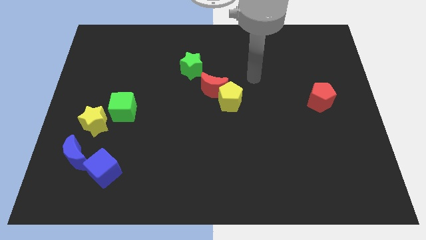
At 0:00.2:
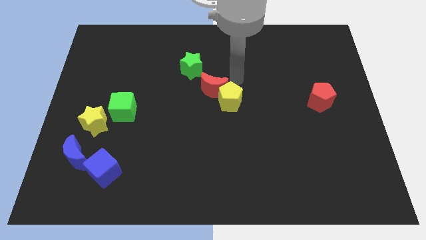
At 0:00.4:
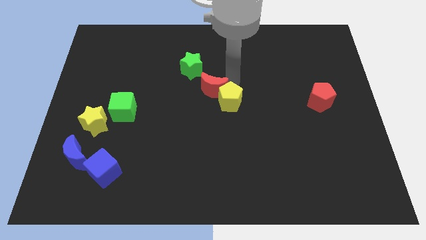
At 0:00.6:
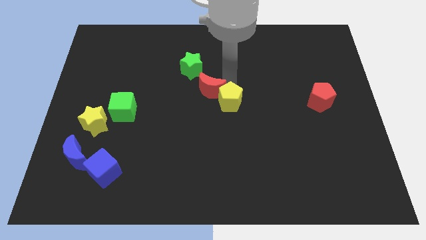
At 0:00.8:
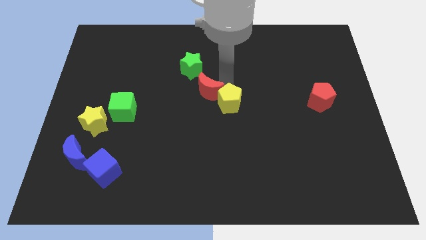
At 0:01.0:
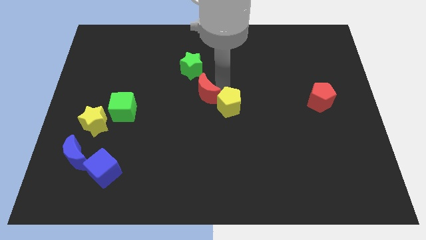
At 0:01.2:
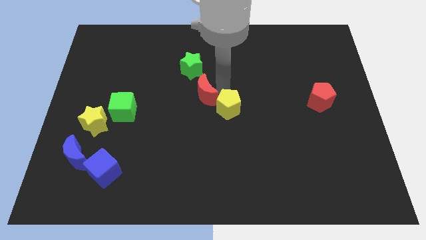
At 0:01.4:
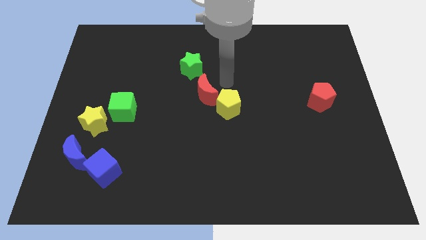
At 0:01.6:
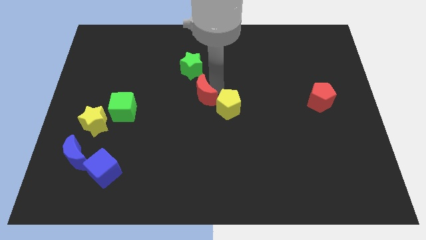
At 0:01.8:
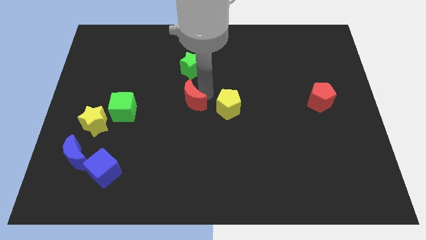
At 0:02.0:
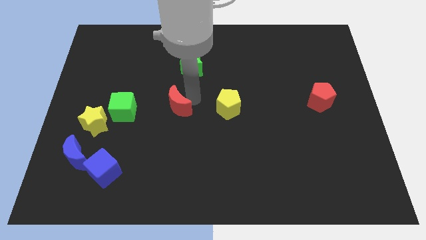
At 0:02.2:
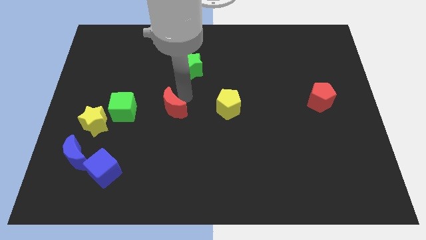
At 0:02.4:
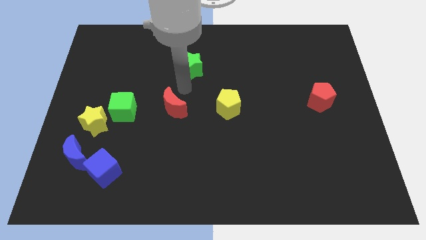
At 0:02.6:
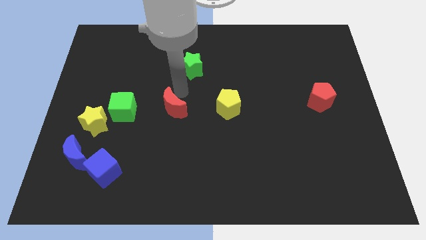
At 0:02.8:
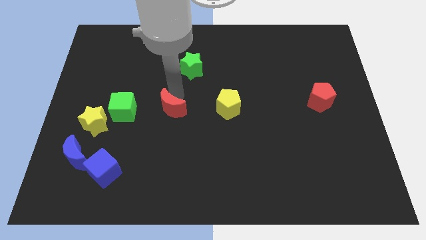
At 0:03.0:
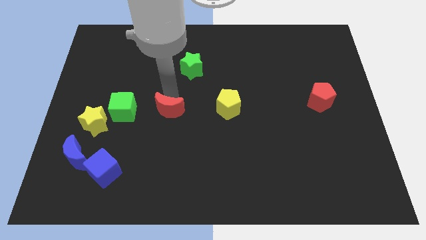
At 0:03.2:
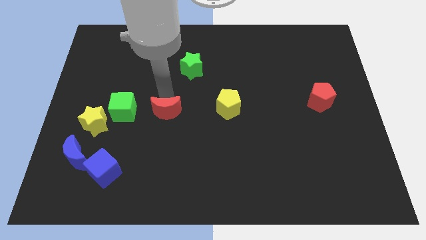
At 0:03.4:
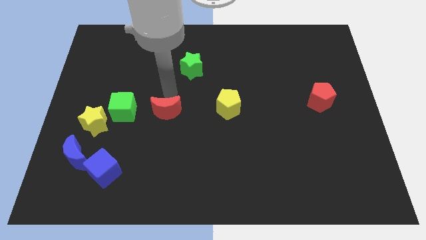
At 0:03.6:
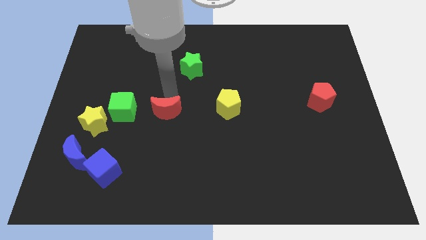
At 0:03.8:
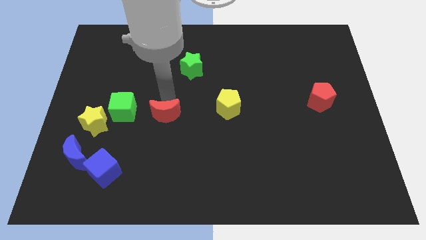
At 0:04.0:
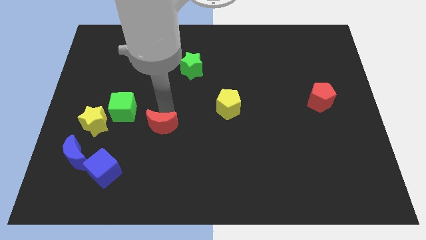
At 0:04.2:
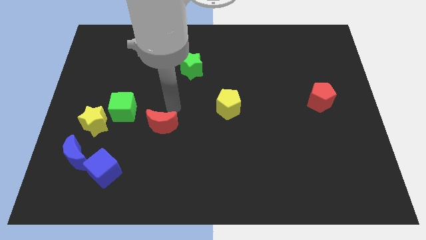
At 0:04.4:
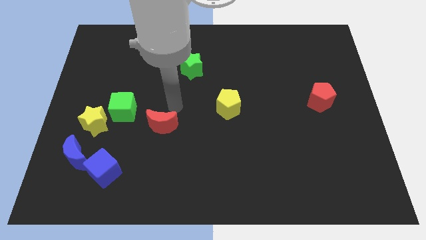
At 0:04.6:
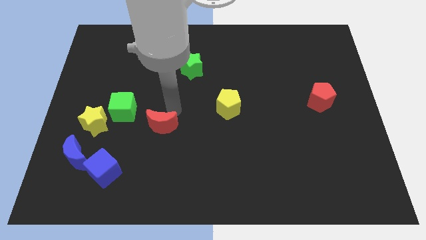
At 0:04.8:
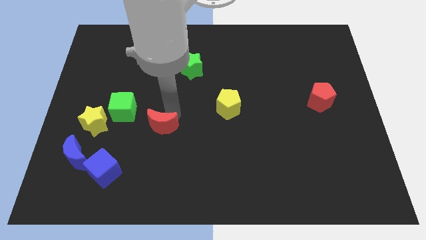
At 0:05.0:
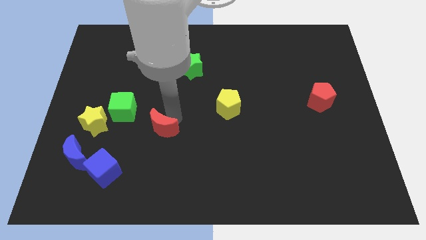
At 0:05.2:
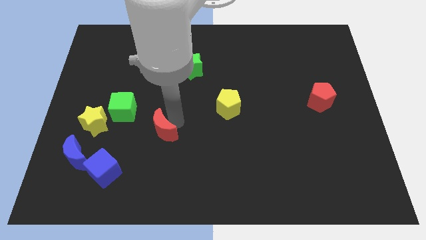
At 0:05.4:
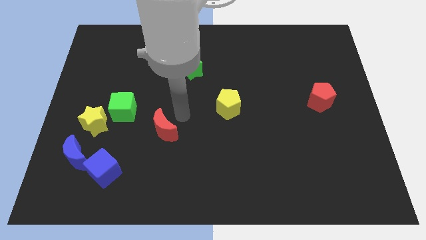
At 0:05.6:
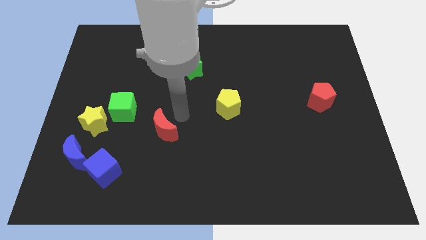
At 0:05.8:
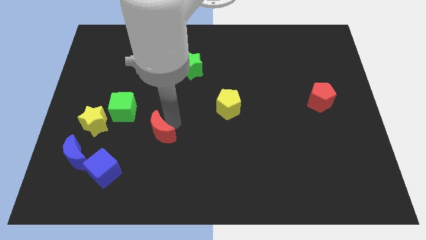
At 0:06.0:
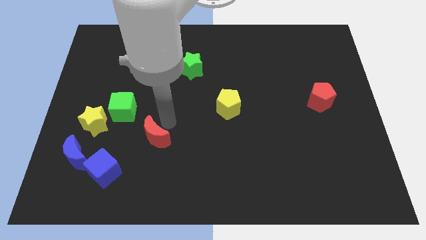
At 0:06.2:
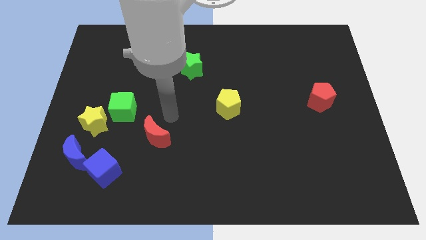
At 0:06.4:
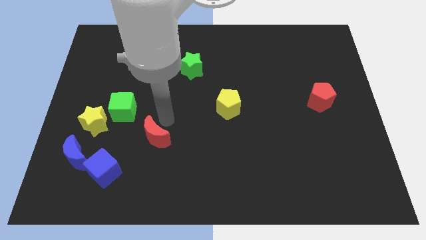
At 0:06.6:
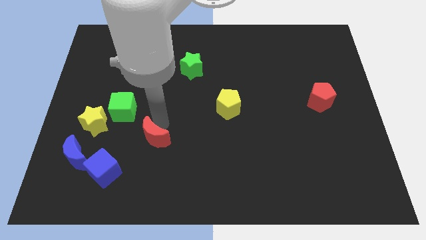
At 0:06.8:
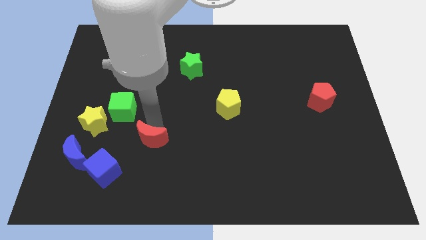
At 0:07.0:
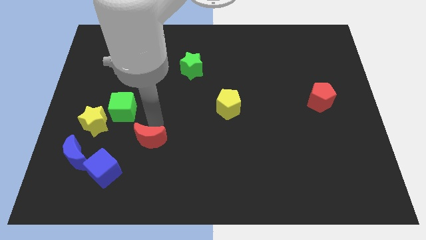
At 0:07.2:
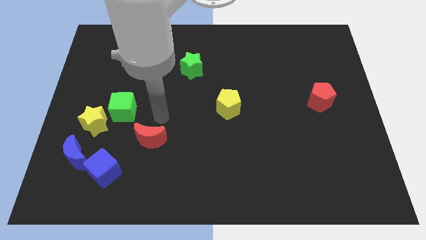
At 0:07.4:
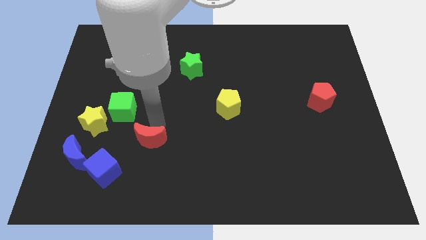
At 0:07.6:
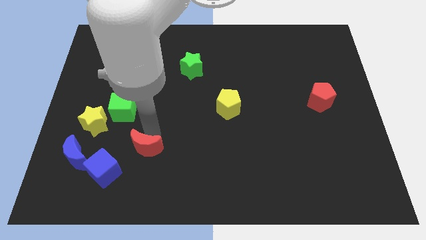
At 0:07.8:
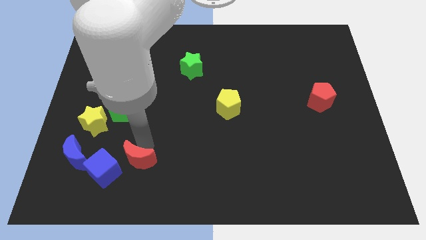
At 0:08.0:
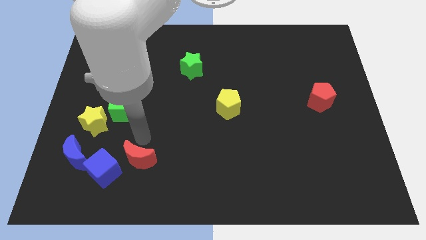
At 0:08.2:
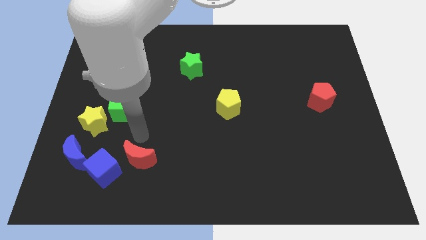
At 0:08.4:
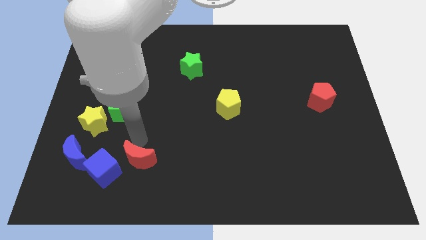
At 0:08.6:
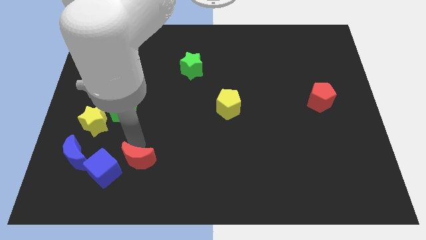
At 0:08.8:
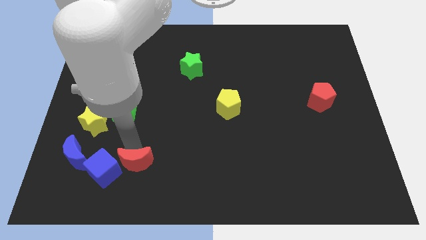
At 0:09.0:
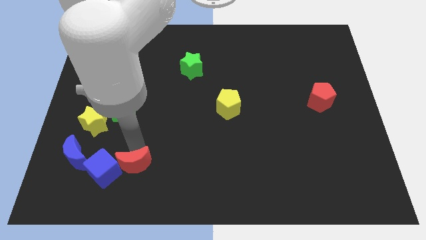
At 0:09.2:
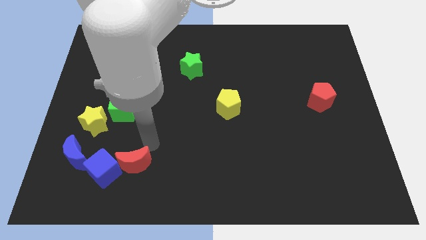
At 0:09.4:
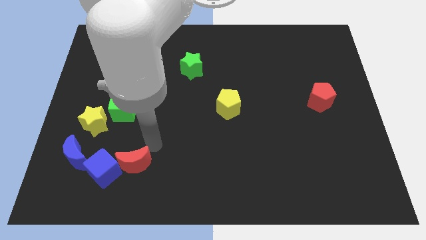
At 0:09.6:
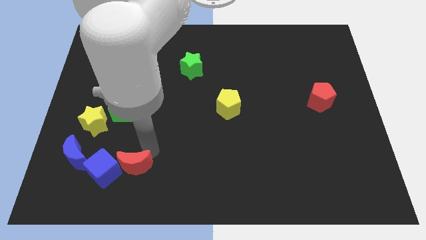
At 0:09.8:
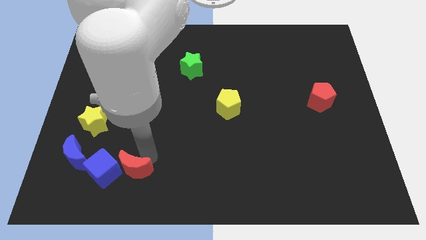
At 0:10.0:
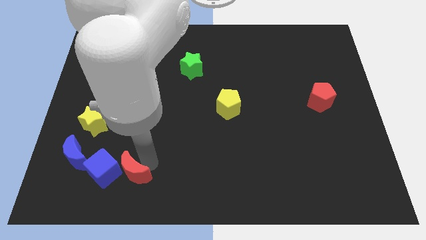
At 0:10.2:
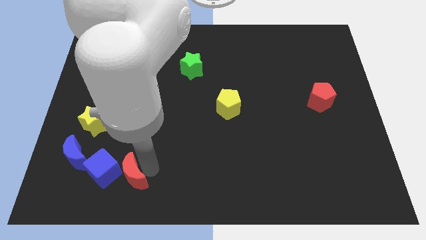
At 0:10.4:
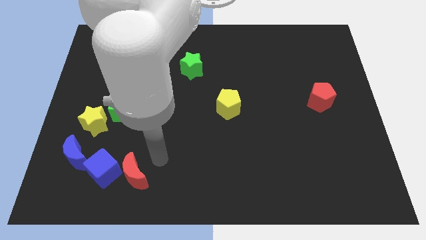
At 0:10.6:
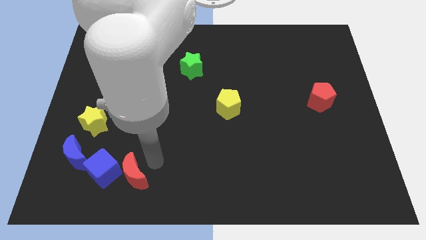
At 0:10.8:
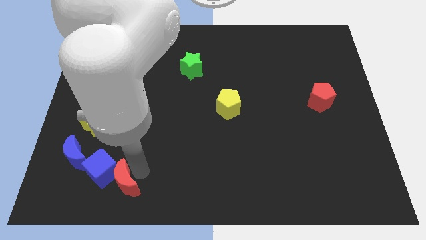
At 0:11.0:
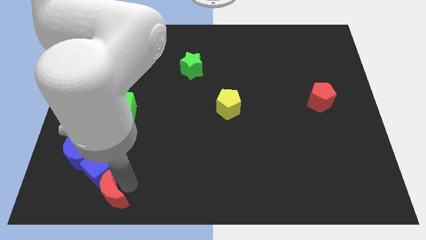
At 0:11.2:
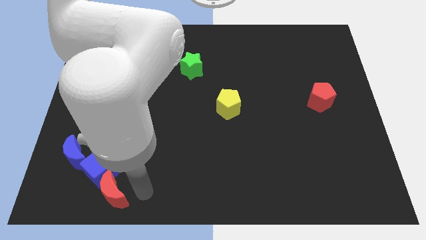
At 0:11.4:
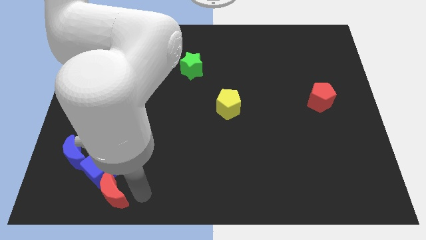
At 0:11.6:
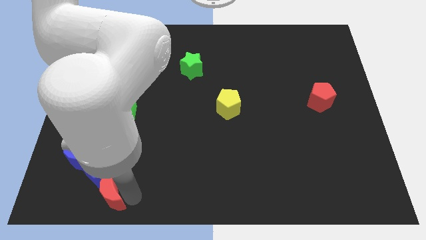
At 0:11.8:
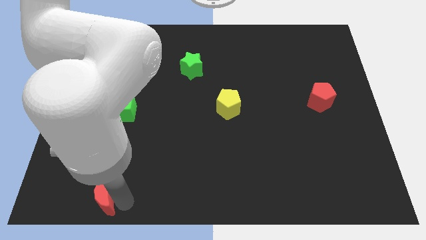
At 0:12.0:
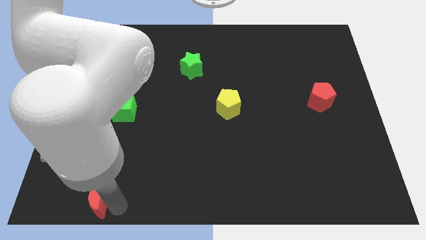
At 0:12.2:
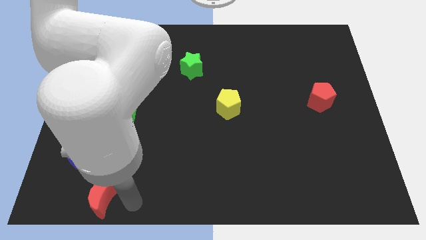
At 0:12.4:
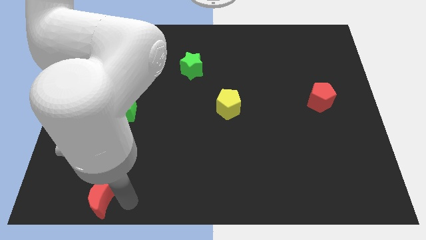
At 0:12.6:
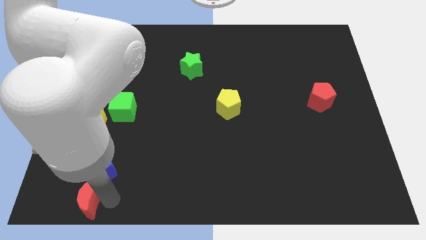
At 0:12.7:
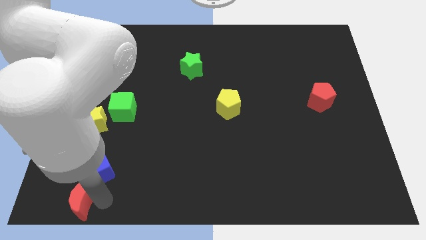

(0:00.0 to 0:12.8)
put the red moon to the bottom left

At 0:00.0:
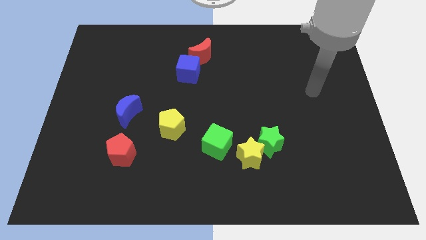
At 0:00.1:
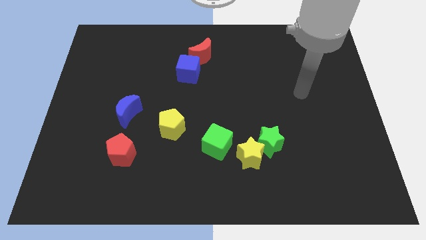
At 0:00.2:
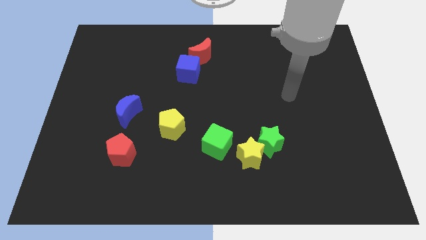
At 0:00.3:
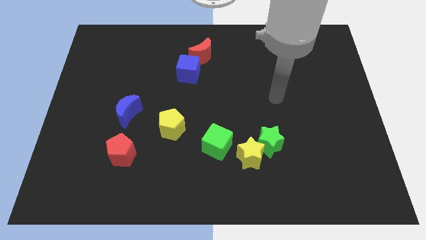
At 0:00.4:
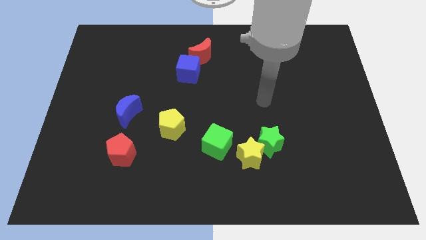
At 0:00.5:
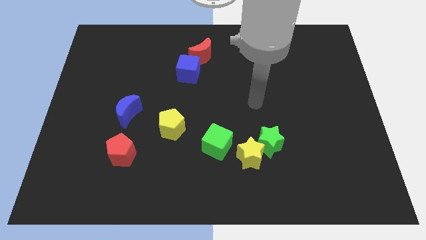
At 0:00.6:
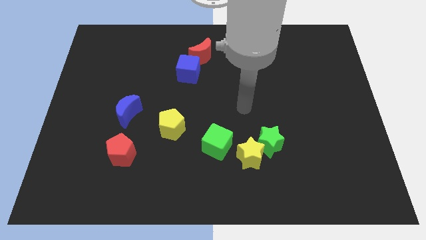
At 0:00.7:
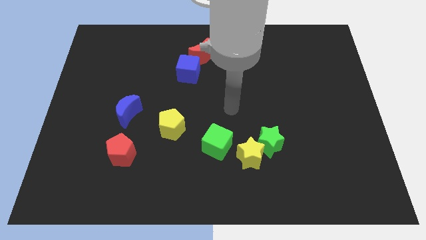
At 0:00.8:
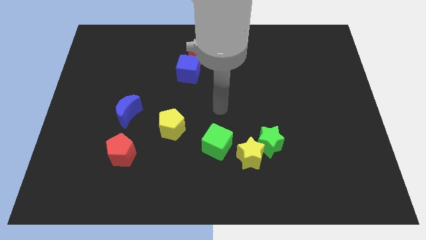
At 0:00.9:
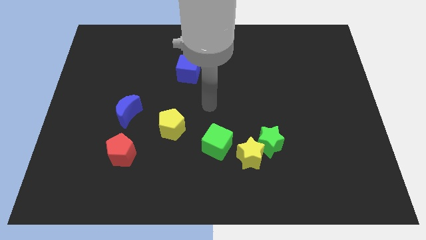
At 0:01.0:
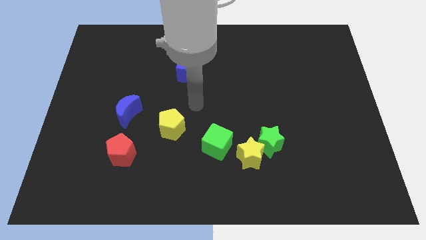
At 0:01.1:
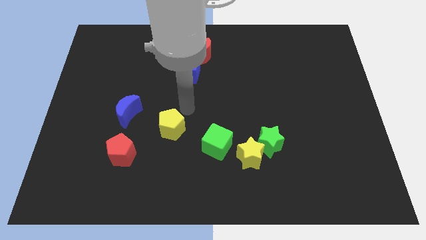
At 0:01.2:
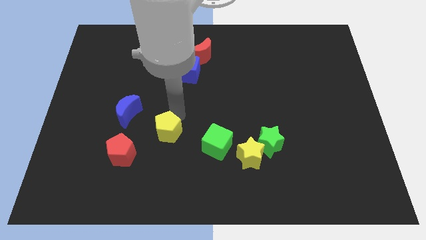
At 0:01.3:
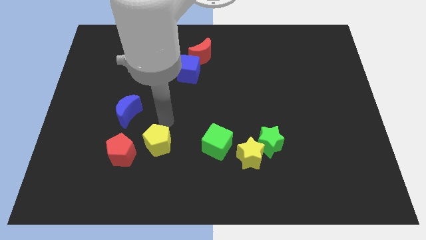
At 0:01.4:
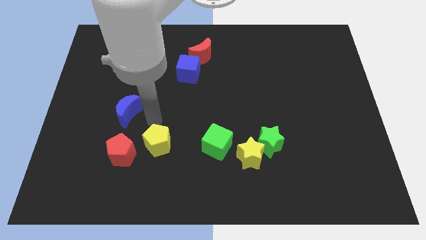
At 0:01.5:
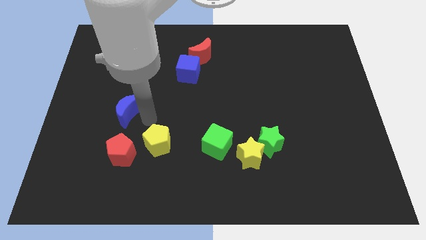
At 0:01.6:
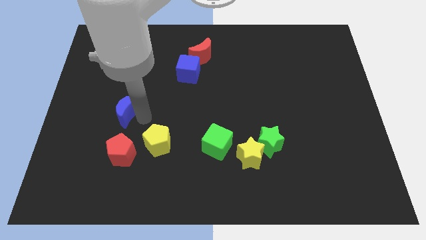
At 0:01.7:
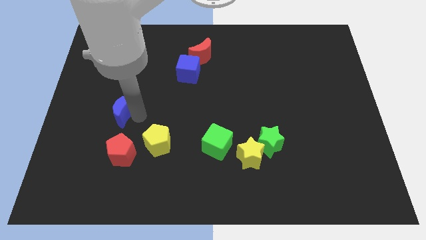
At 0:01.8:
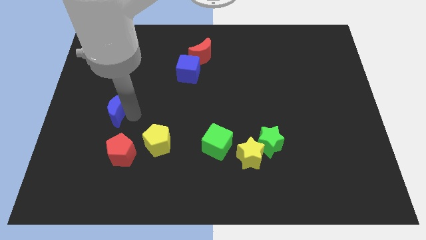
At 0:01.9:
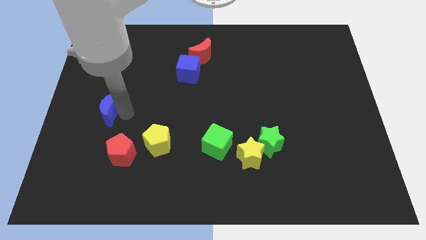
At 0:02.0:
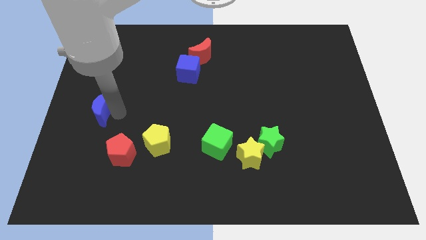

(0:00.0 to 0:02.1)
move the blue moon to the left side

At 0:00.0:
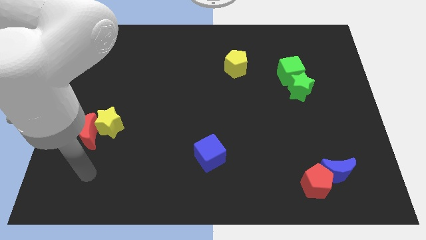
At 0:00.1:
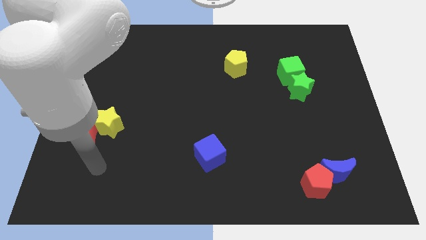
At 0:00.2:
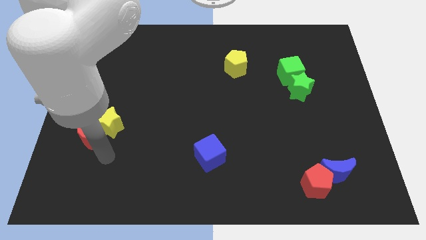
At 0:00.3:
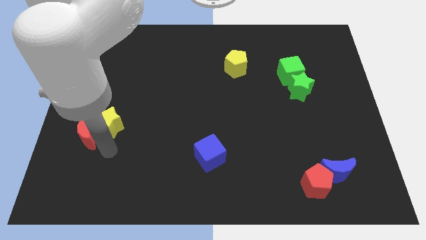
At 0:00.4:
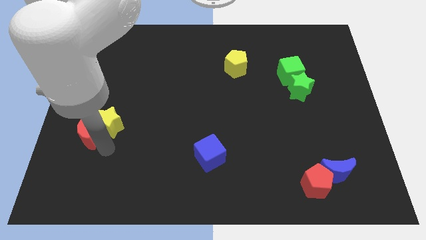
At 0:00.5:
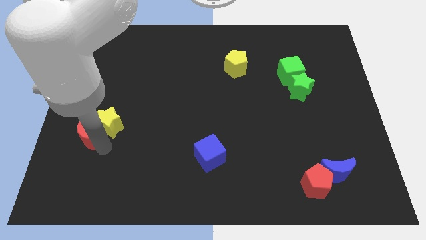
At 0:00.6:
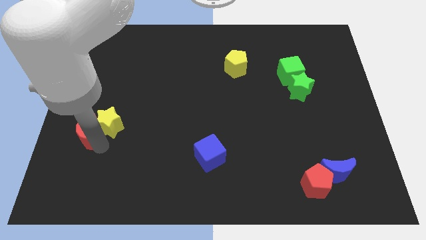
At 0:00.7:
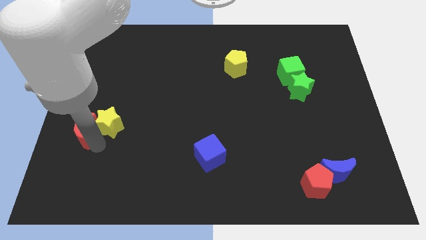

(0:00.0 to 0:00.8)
push the red moon to the center left
